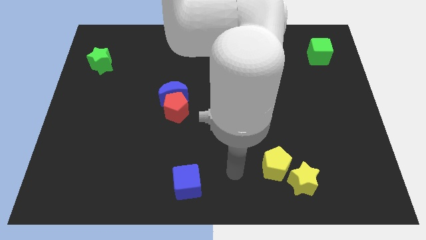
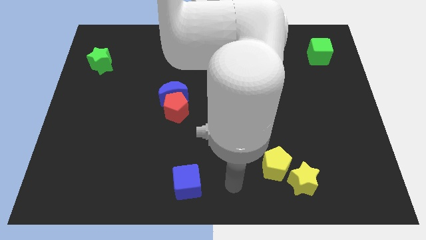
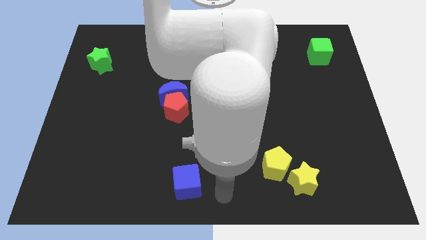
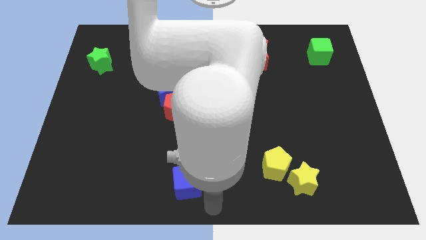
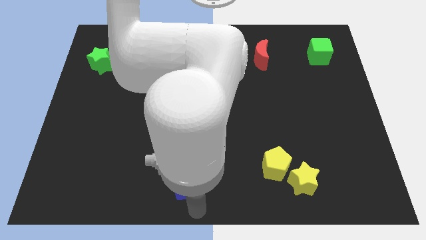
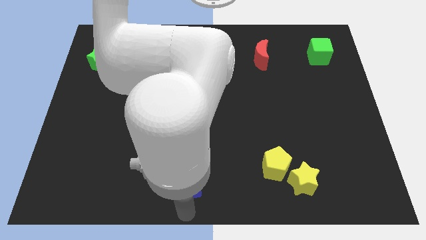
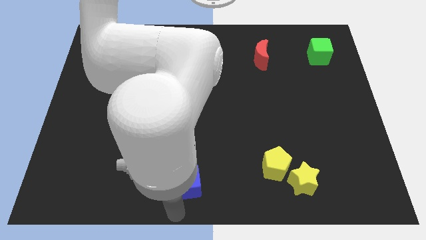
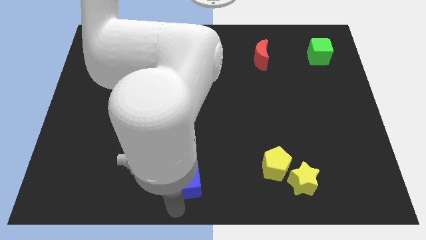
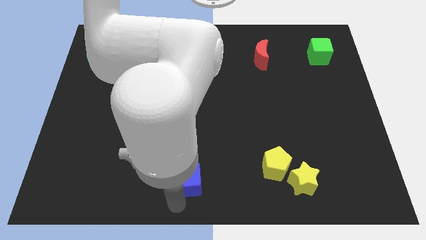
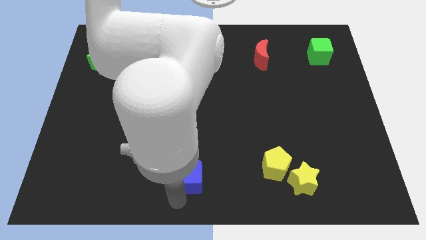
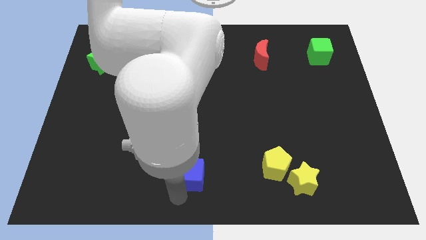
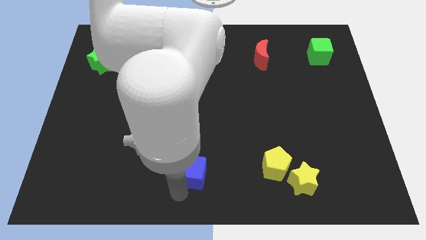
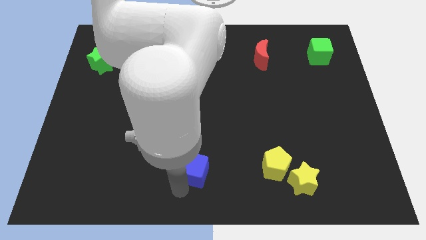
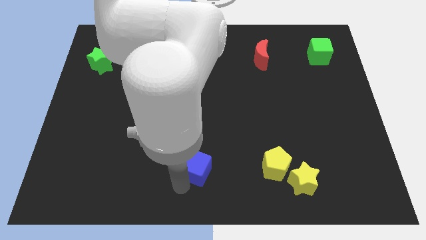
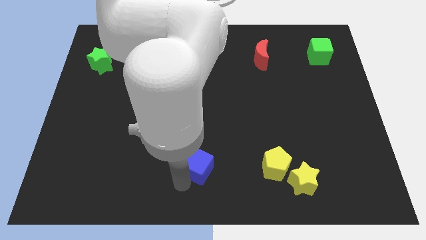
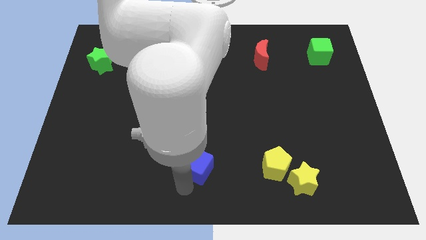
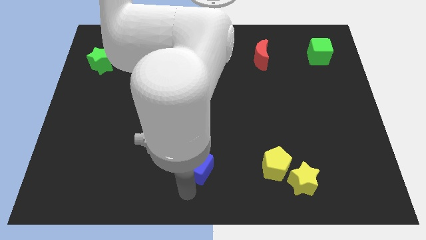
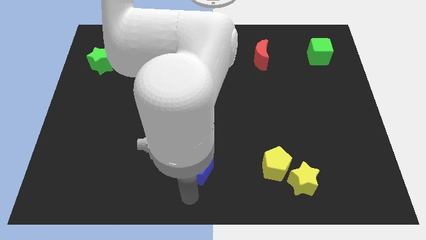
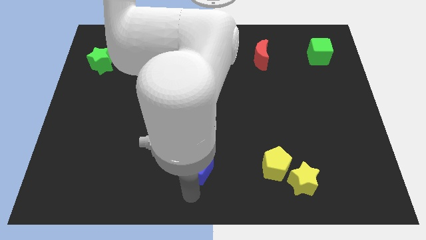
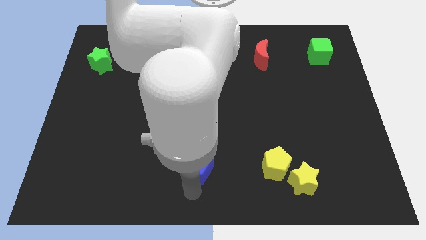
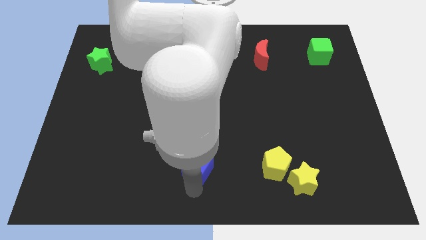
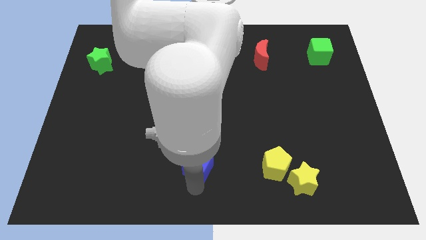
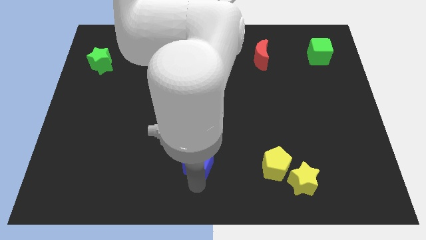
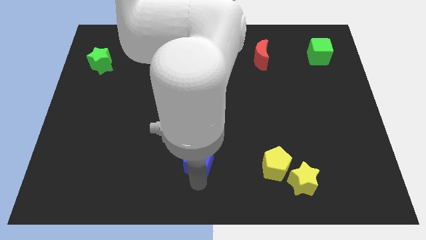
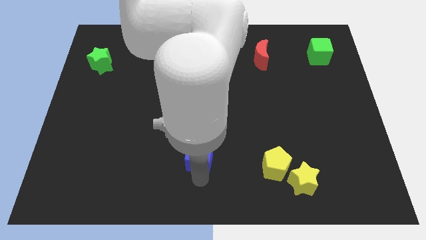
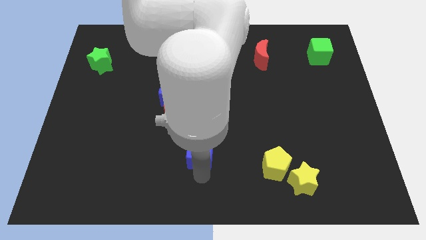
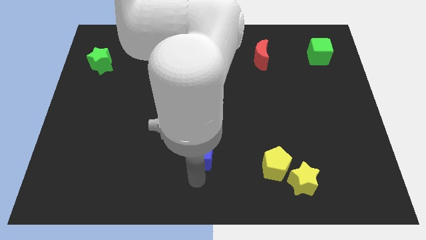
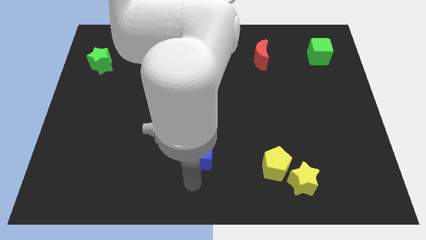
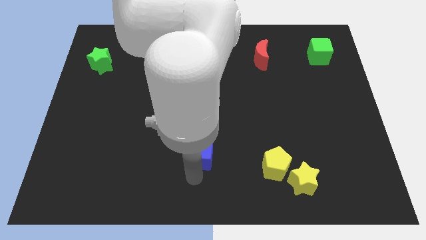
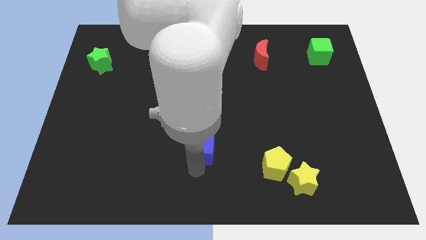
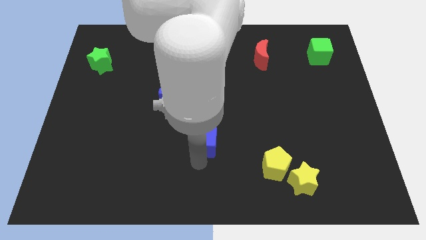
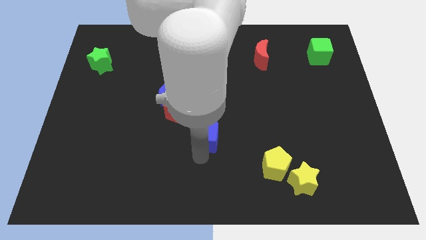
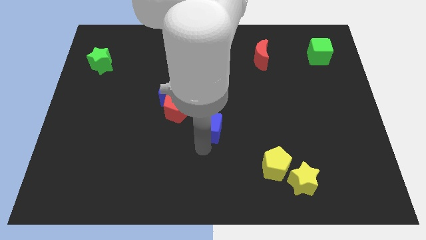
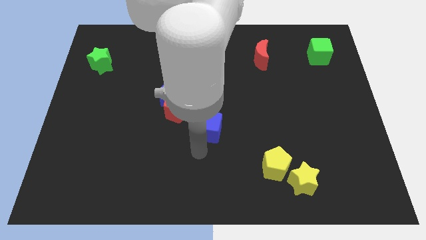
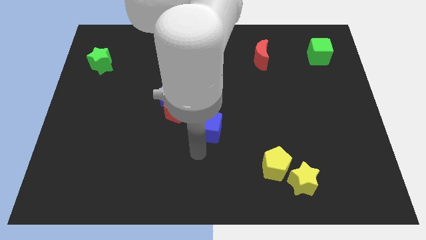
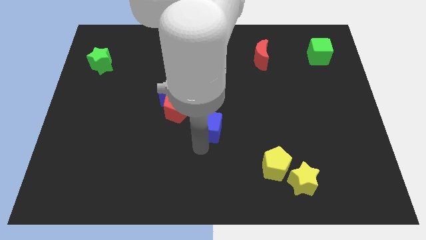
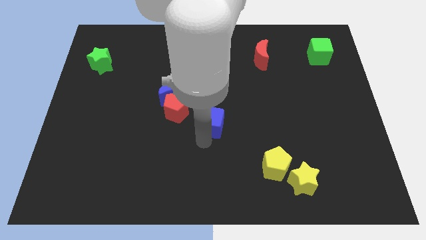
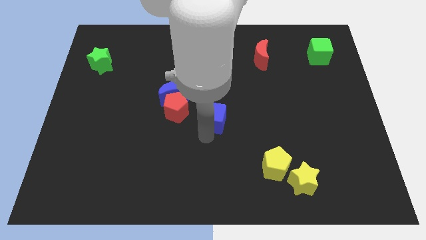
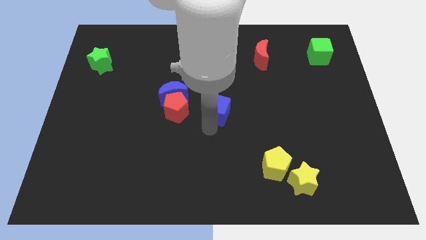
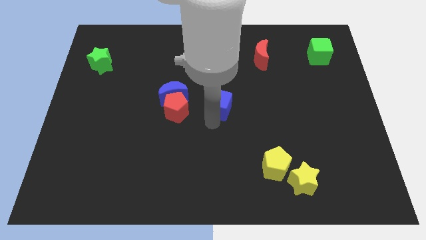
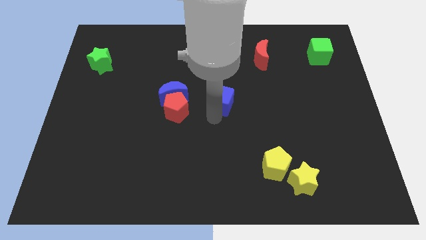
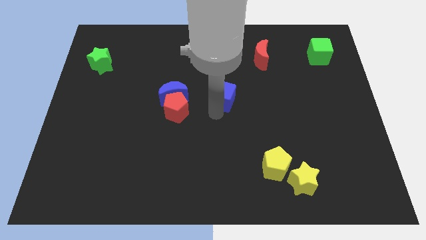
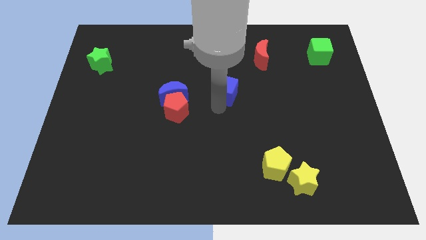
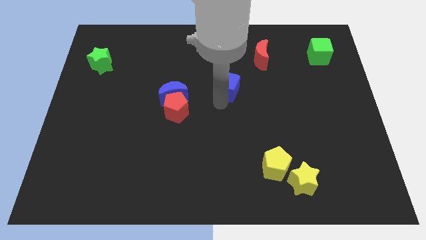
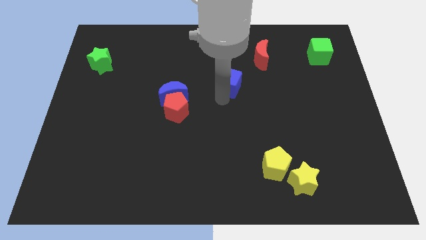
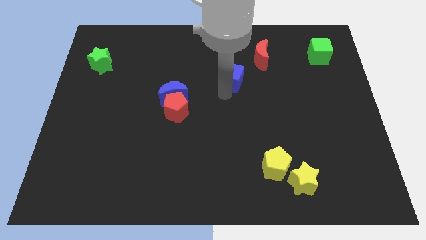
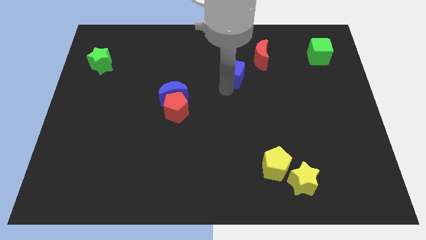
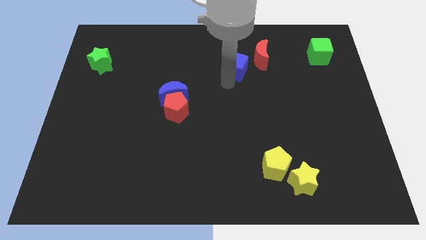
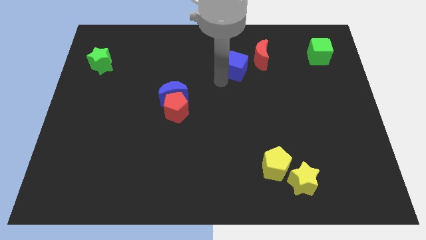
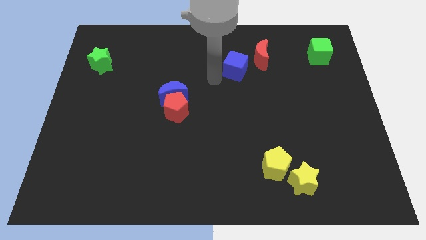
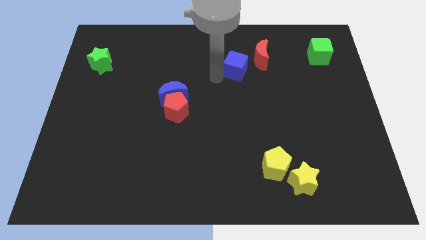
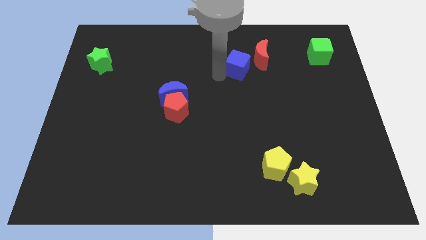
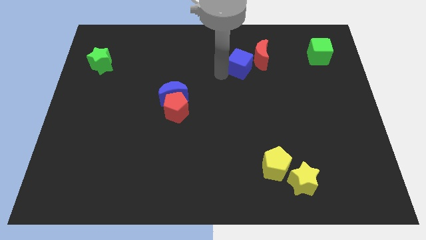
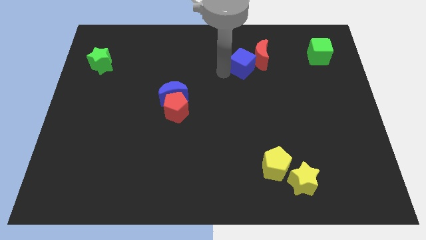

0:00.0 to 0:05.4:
put the blue cube close to the red moon

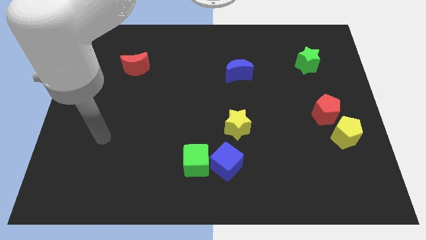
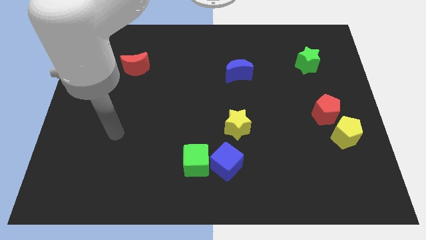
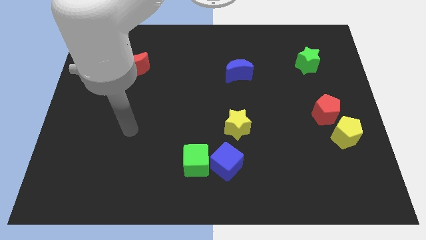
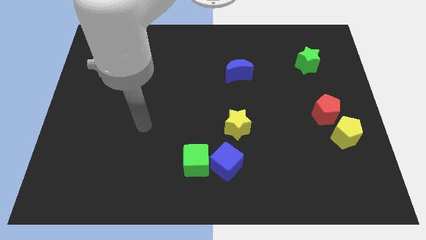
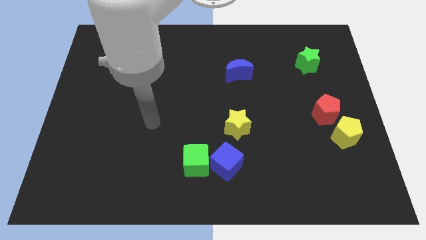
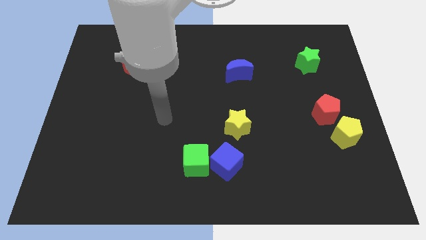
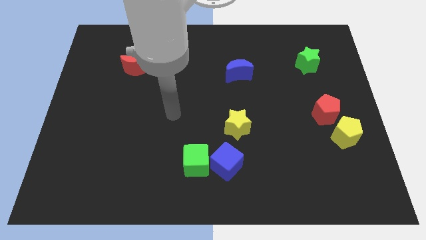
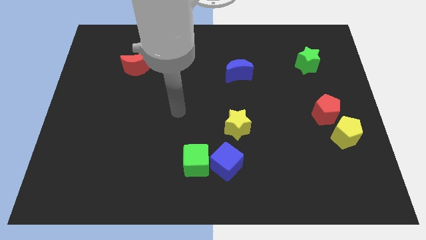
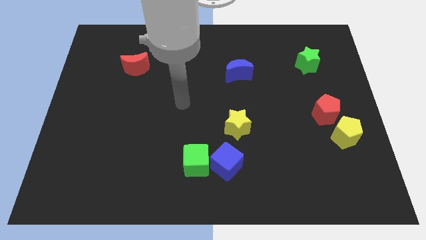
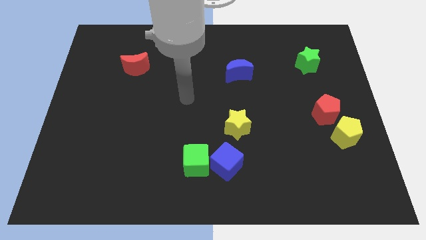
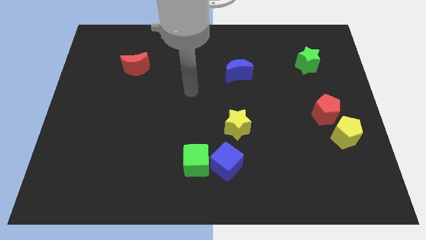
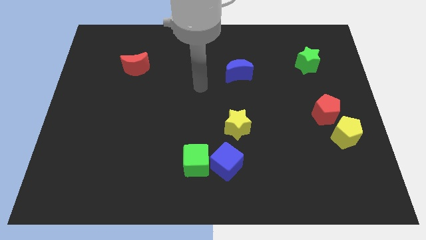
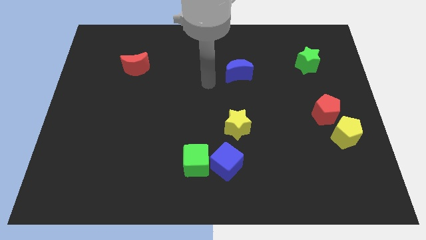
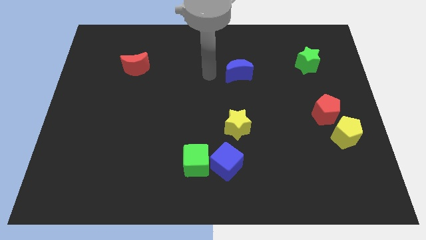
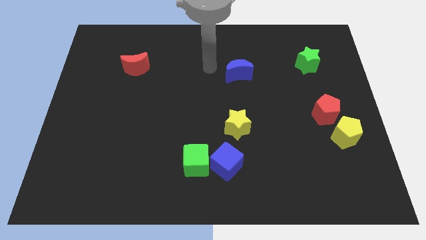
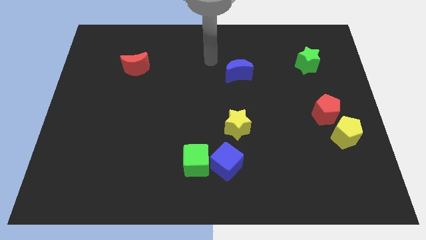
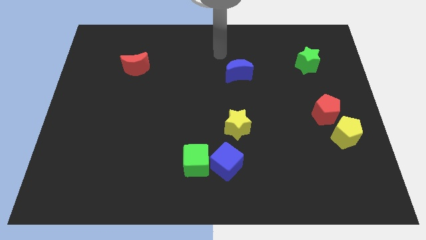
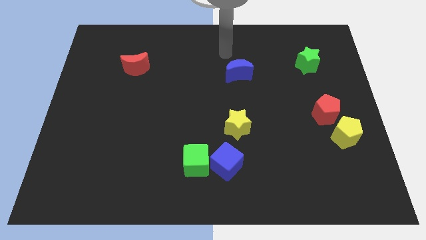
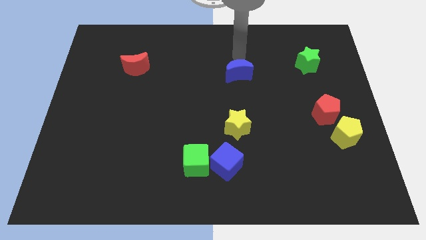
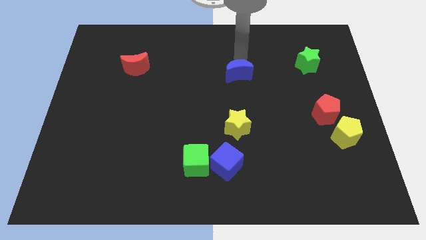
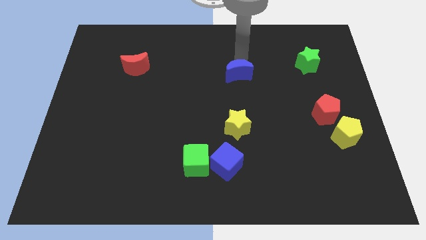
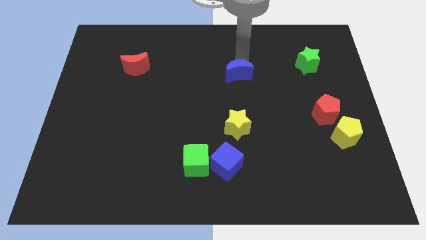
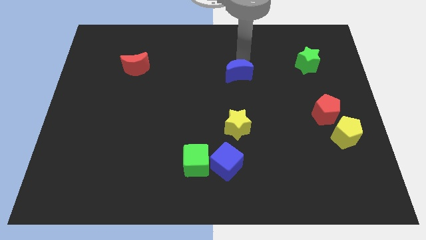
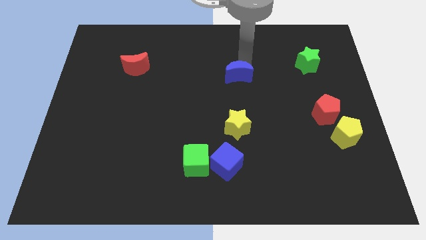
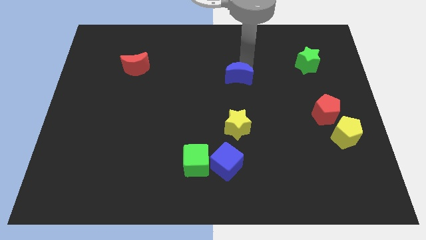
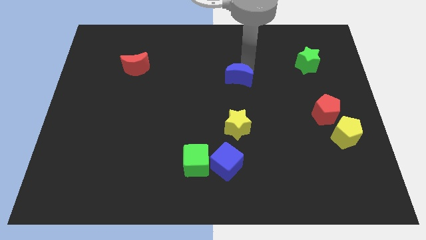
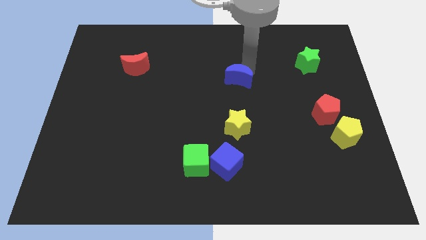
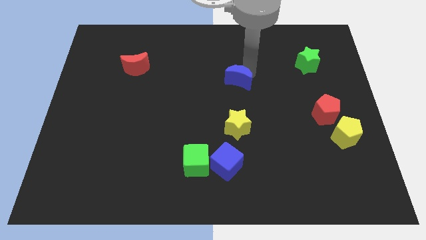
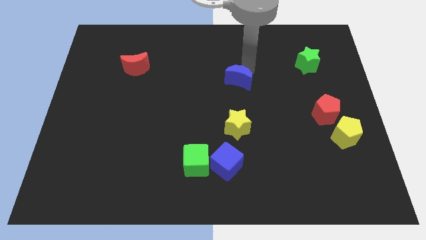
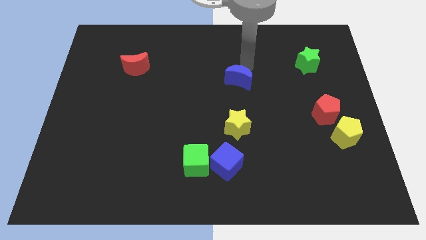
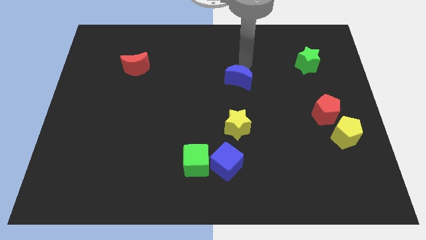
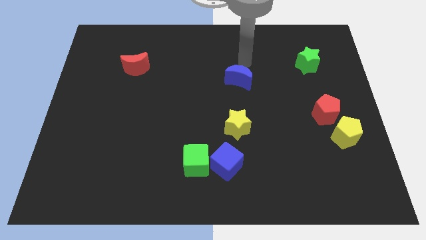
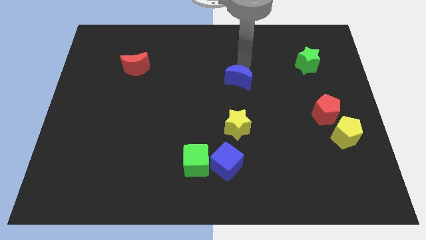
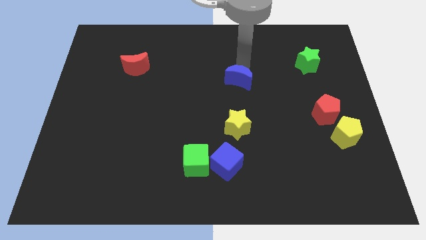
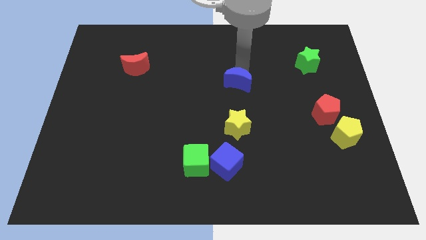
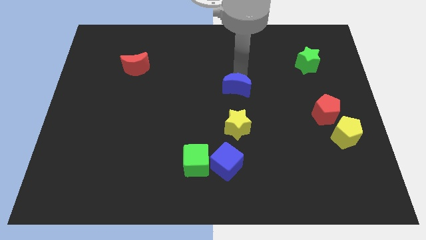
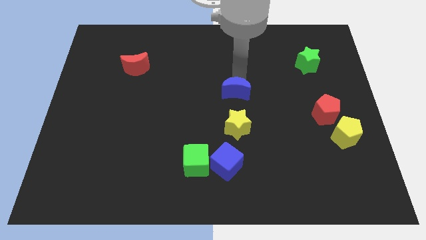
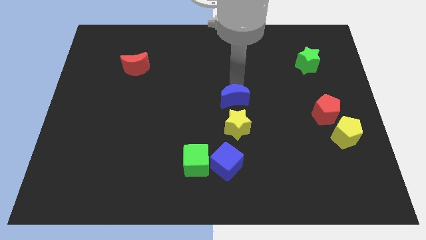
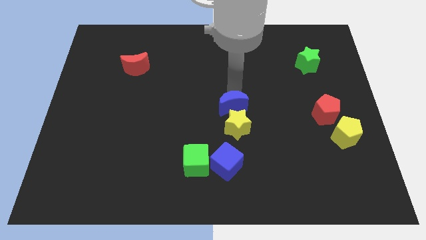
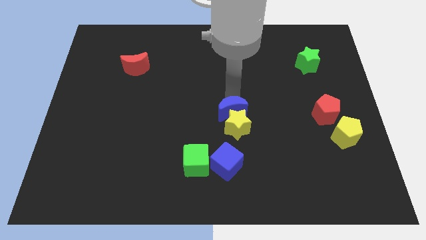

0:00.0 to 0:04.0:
put the blue moon next to the yellow star
